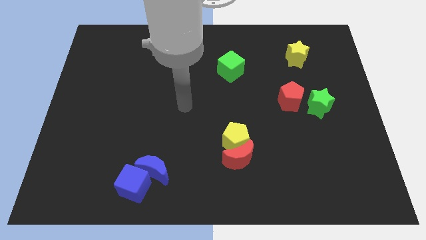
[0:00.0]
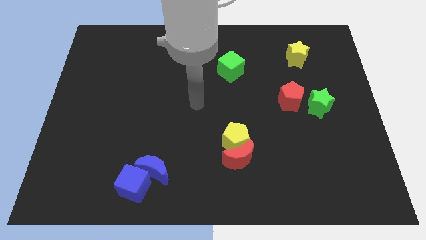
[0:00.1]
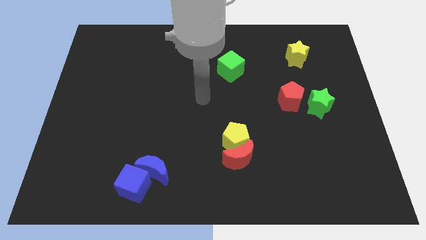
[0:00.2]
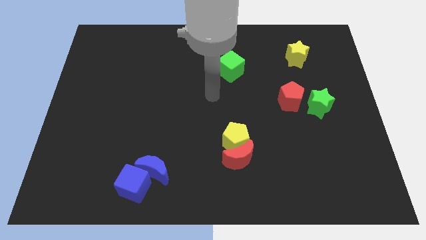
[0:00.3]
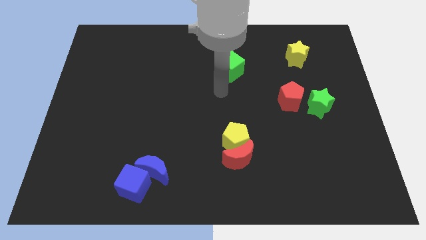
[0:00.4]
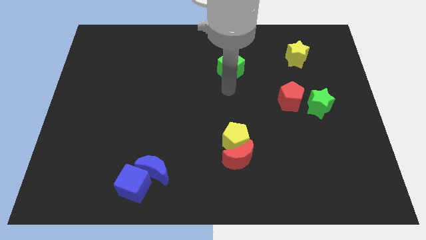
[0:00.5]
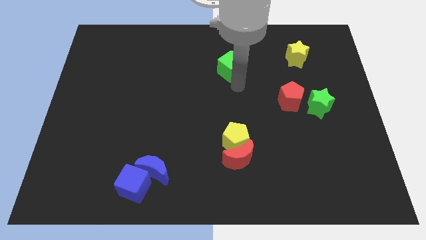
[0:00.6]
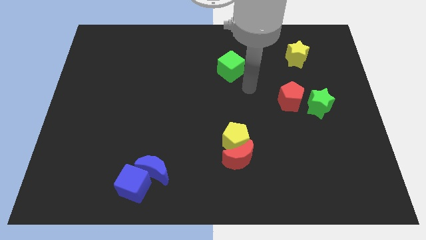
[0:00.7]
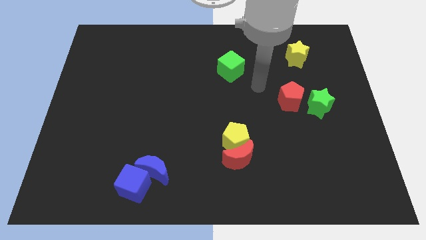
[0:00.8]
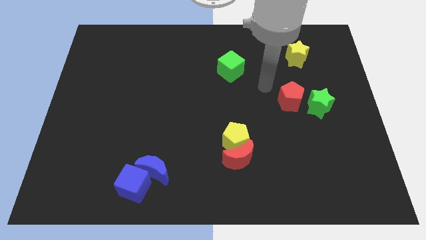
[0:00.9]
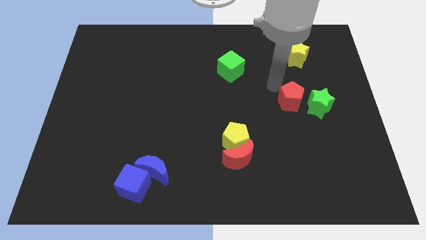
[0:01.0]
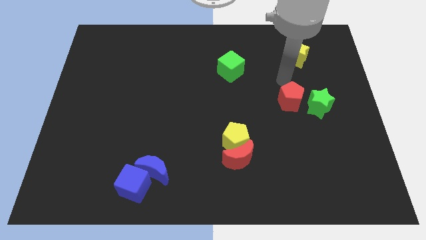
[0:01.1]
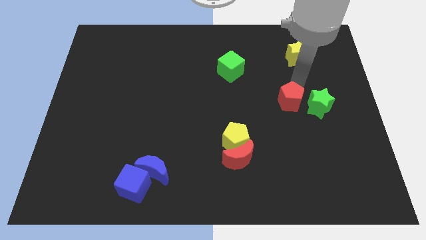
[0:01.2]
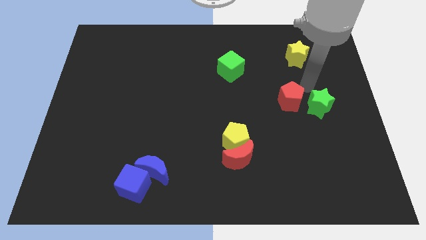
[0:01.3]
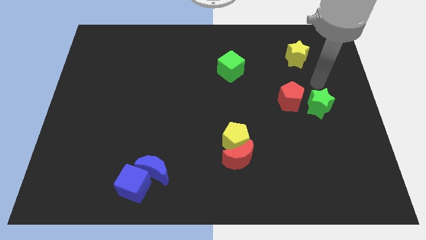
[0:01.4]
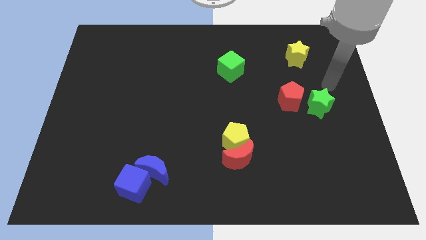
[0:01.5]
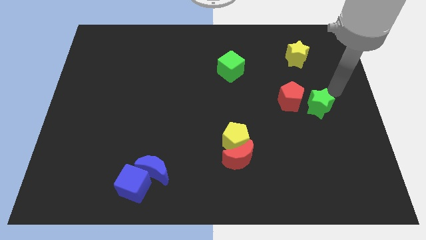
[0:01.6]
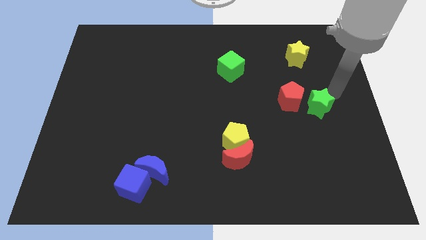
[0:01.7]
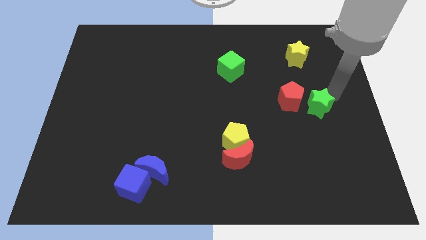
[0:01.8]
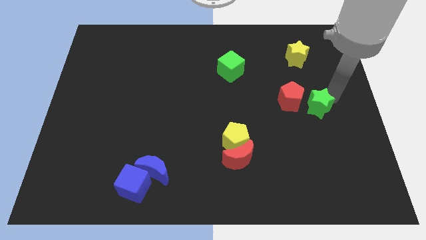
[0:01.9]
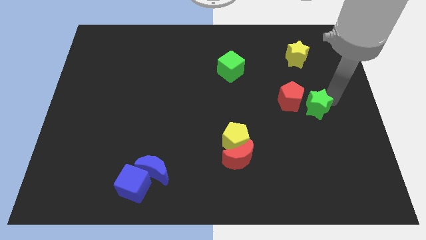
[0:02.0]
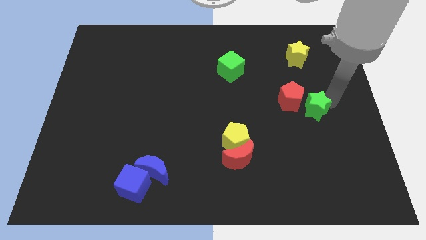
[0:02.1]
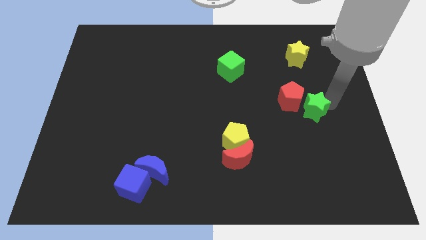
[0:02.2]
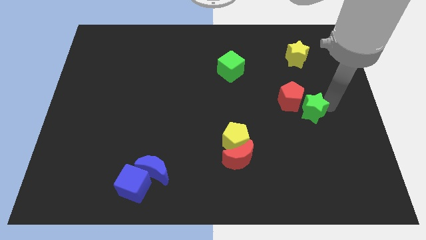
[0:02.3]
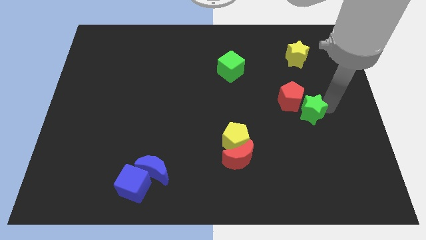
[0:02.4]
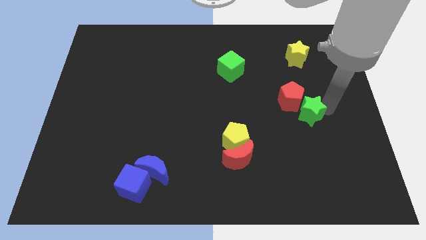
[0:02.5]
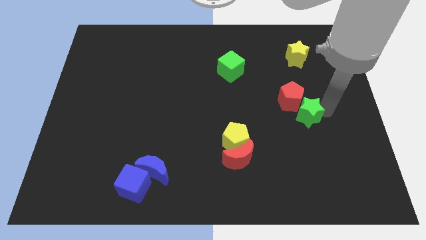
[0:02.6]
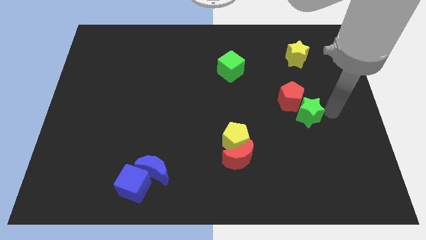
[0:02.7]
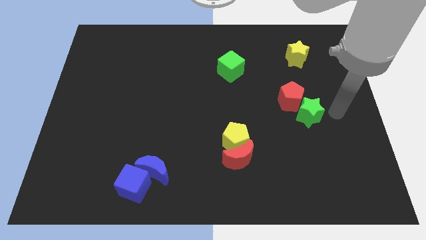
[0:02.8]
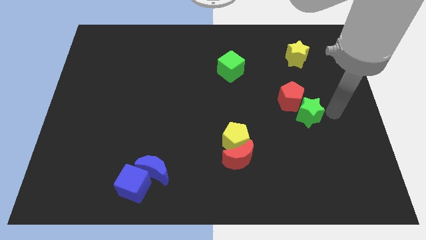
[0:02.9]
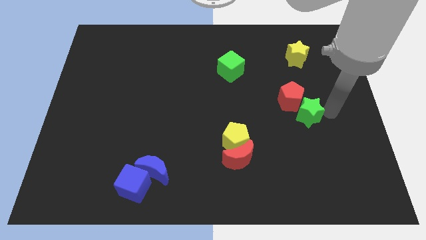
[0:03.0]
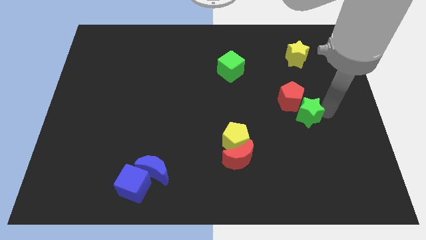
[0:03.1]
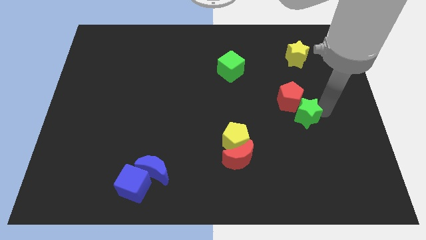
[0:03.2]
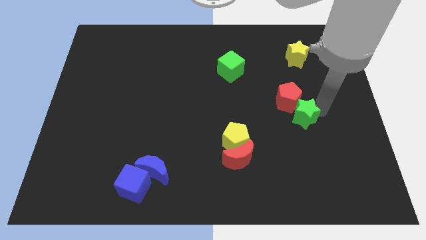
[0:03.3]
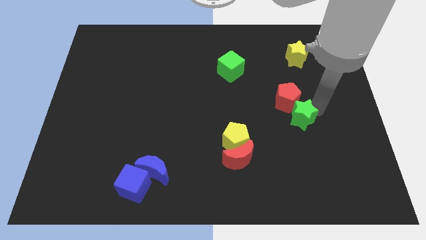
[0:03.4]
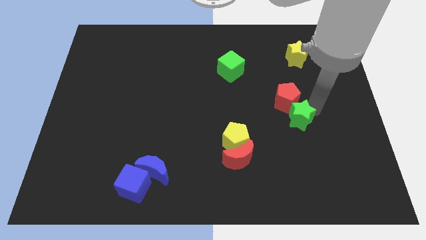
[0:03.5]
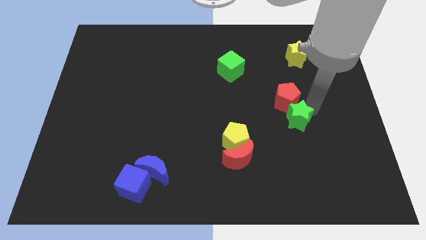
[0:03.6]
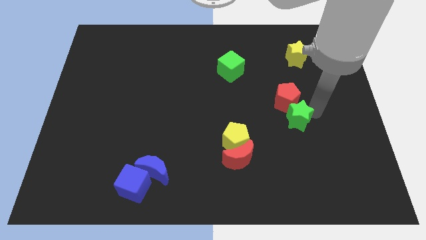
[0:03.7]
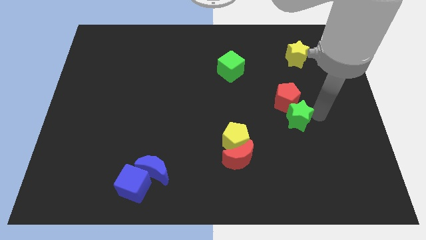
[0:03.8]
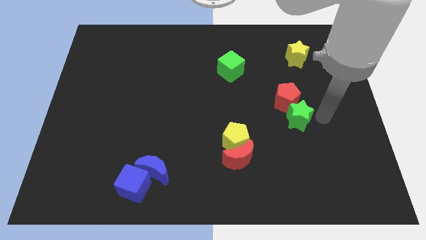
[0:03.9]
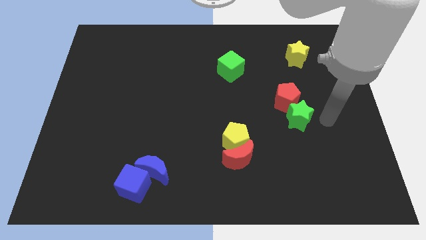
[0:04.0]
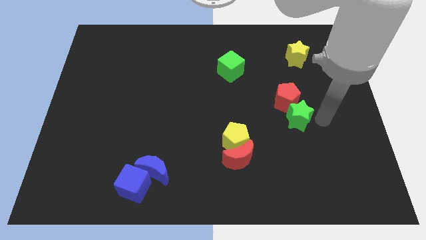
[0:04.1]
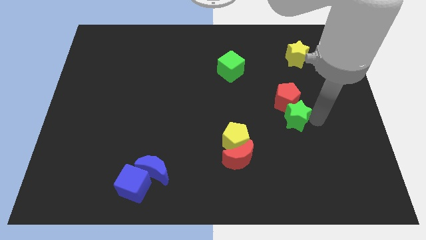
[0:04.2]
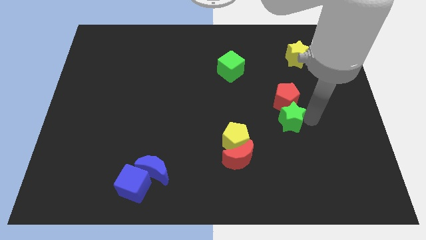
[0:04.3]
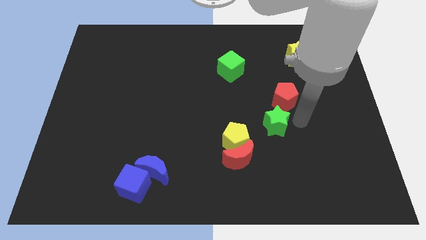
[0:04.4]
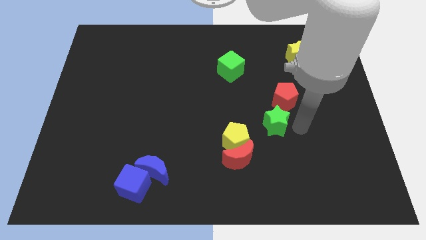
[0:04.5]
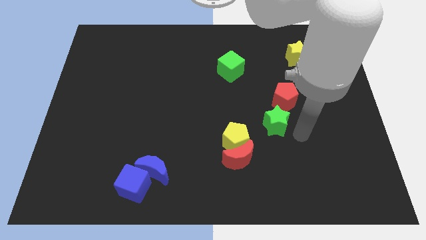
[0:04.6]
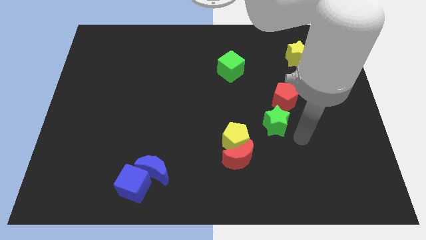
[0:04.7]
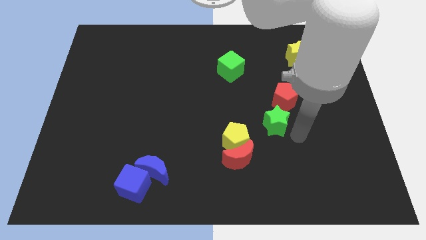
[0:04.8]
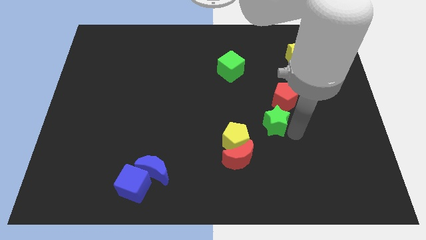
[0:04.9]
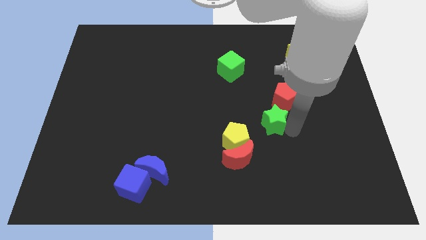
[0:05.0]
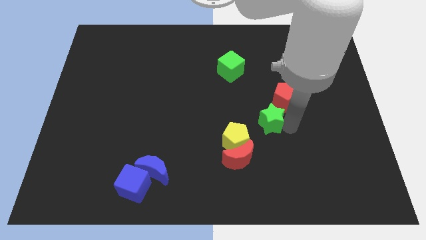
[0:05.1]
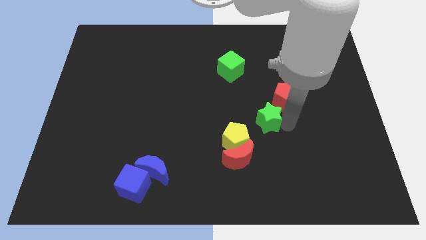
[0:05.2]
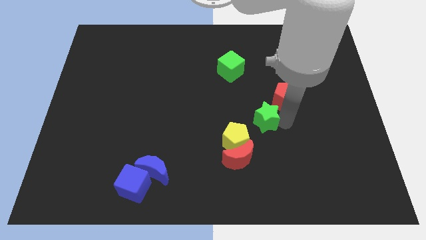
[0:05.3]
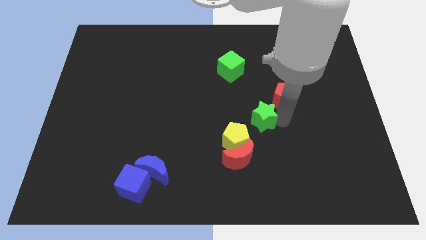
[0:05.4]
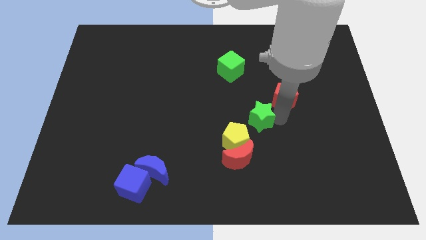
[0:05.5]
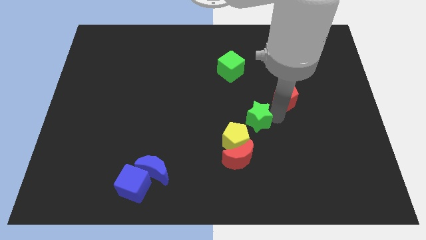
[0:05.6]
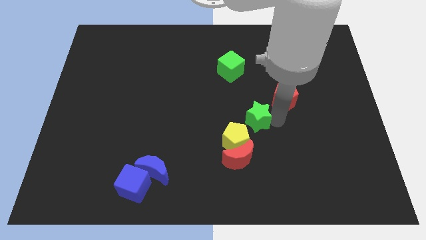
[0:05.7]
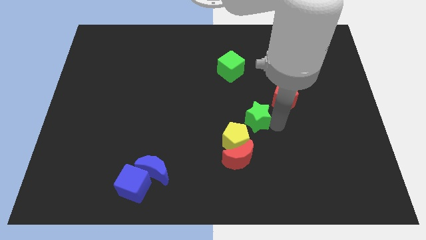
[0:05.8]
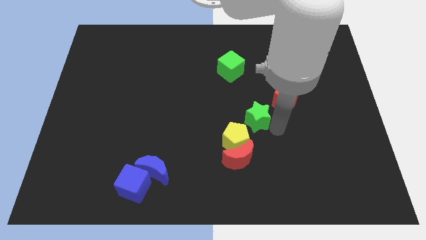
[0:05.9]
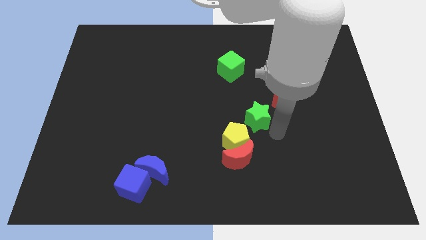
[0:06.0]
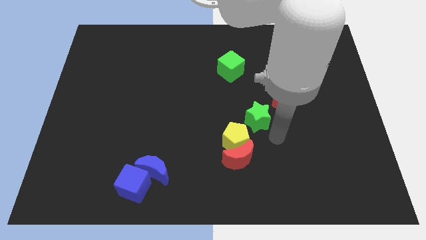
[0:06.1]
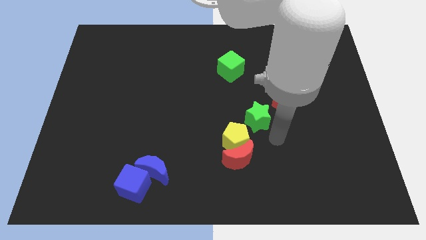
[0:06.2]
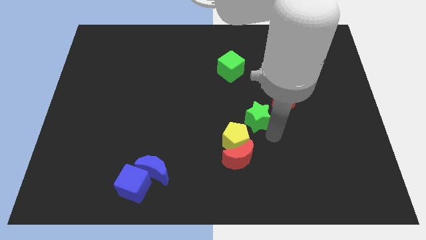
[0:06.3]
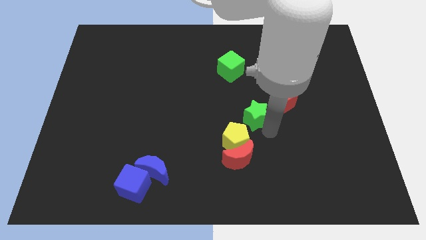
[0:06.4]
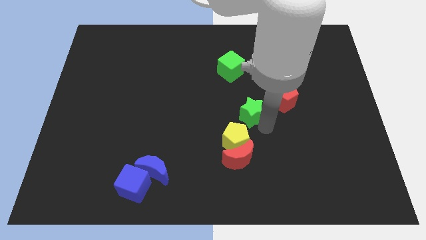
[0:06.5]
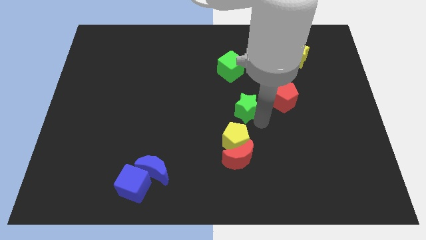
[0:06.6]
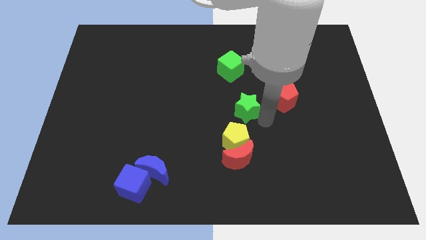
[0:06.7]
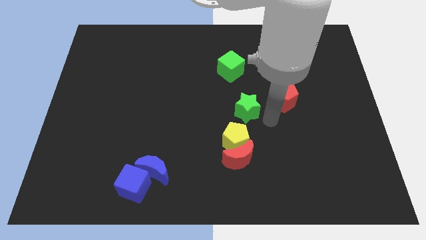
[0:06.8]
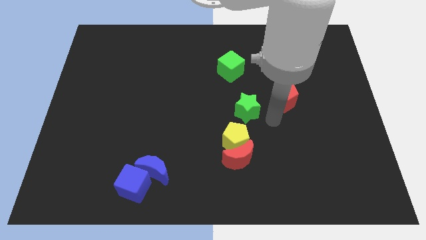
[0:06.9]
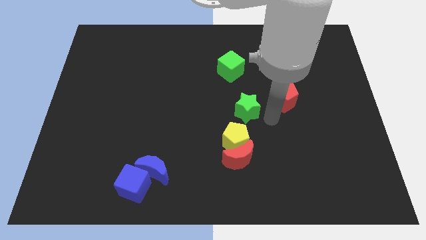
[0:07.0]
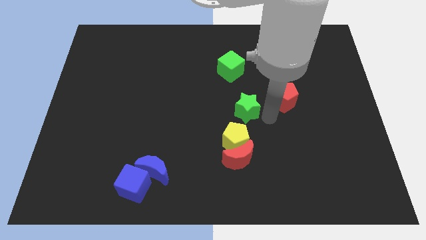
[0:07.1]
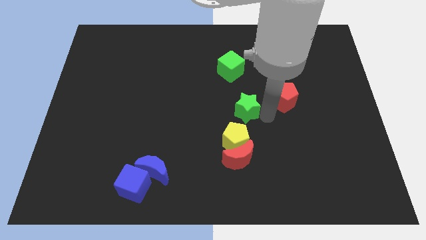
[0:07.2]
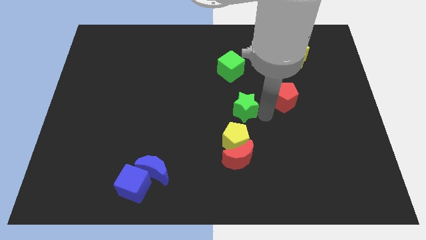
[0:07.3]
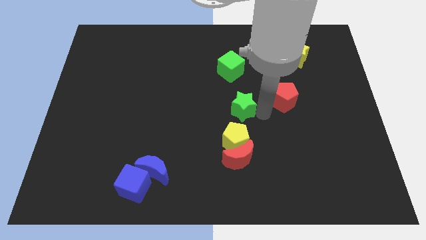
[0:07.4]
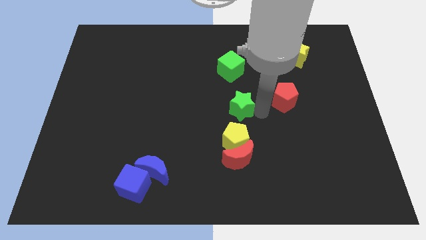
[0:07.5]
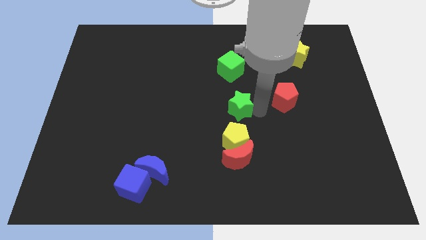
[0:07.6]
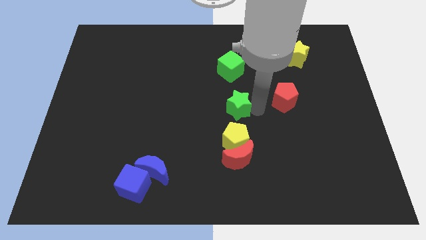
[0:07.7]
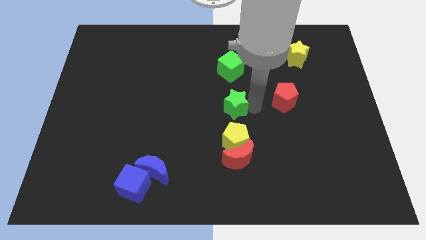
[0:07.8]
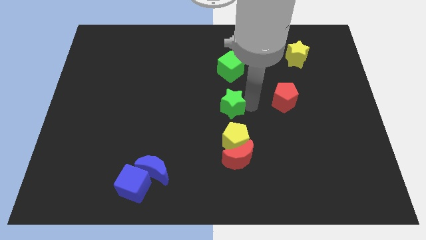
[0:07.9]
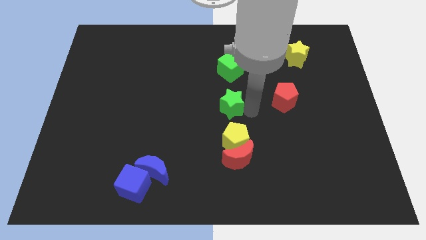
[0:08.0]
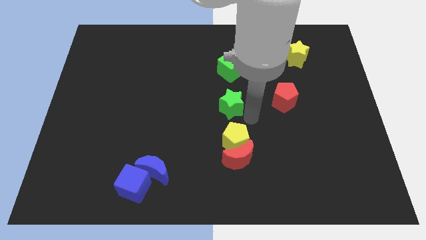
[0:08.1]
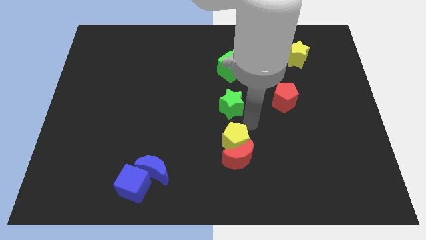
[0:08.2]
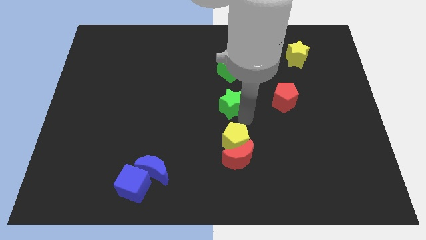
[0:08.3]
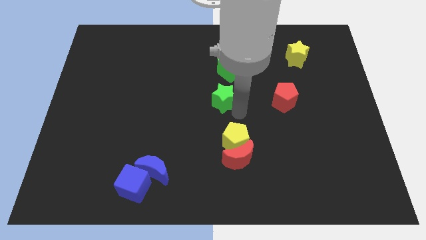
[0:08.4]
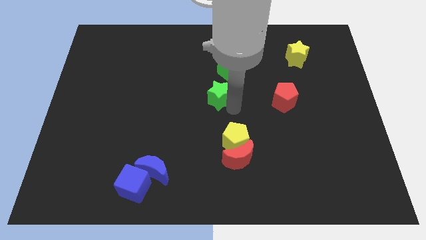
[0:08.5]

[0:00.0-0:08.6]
push the green star to the bottom left side of the green cube
